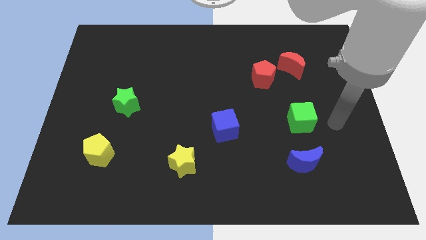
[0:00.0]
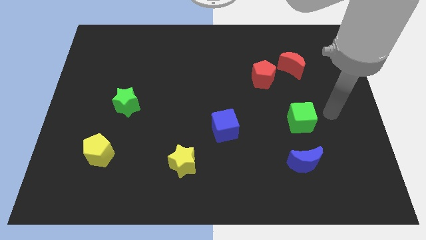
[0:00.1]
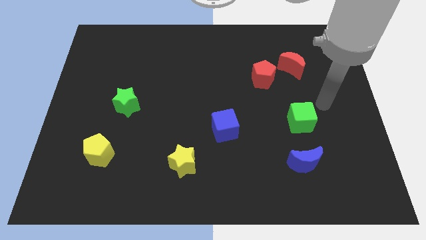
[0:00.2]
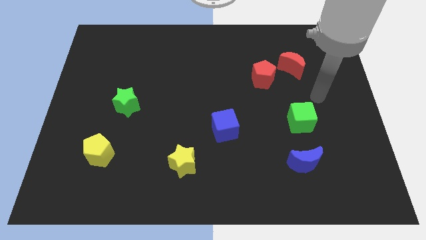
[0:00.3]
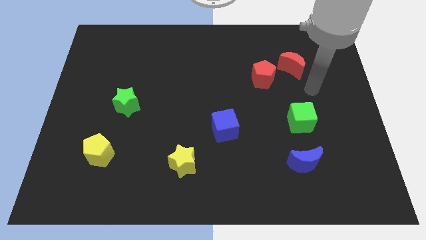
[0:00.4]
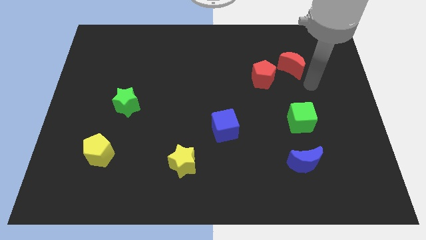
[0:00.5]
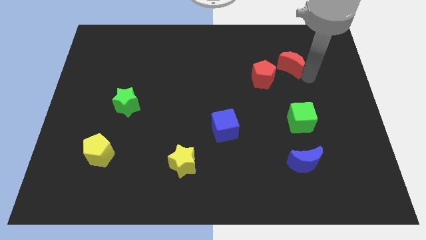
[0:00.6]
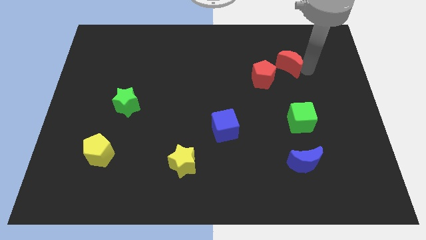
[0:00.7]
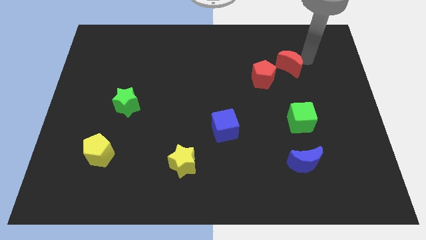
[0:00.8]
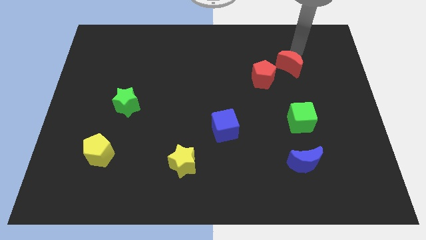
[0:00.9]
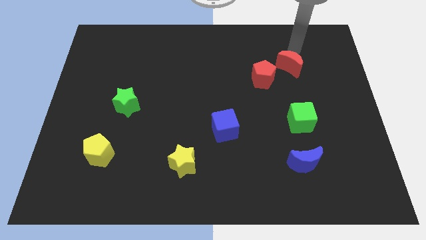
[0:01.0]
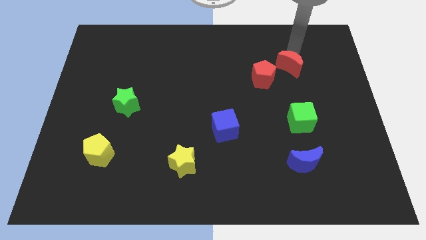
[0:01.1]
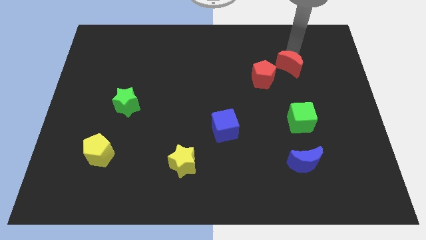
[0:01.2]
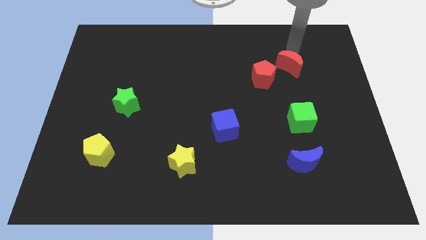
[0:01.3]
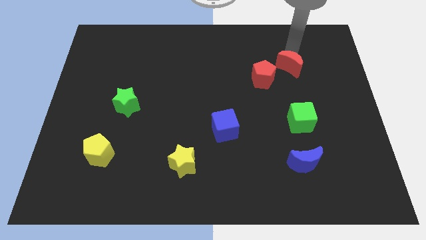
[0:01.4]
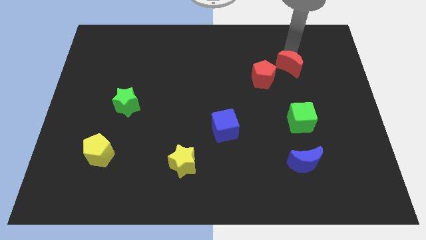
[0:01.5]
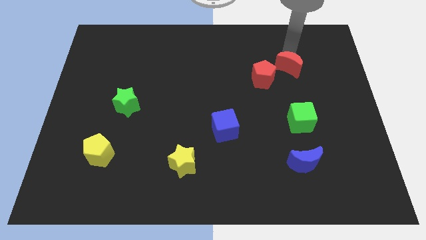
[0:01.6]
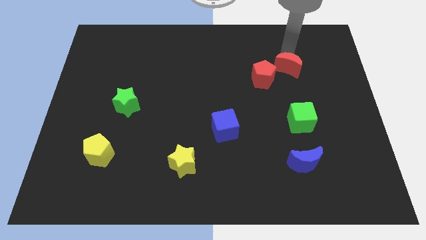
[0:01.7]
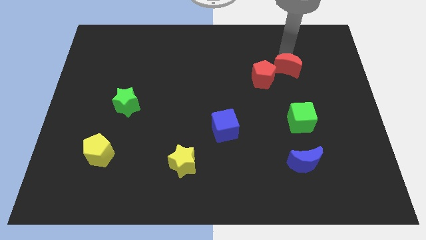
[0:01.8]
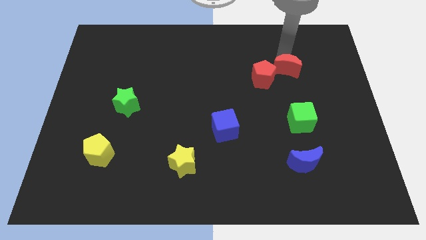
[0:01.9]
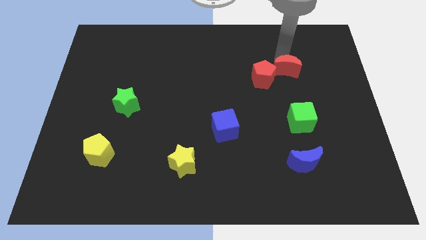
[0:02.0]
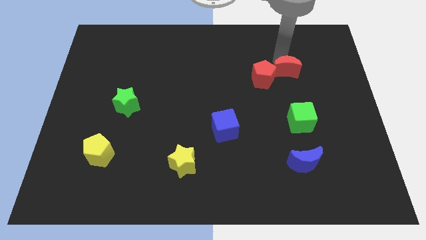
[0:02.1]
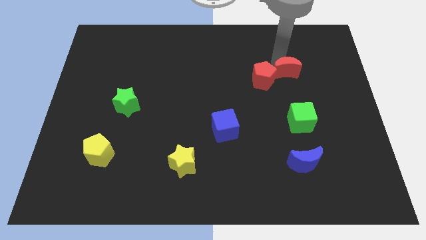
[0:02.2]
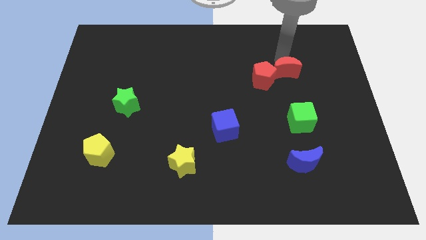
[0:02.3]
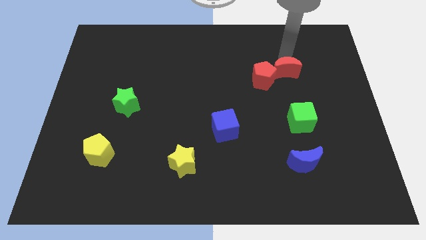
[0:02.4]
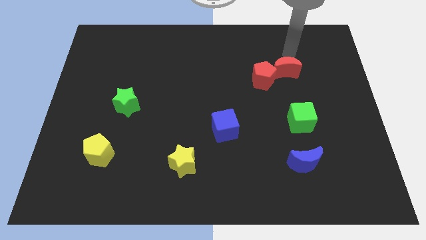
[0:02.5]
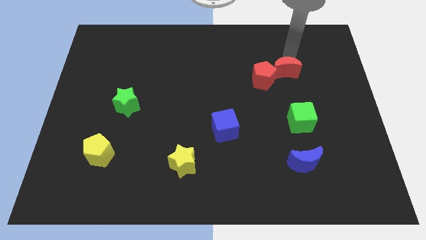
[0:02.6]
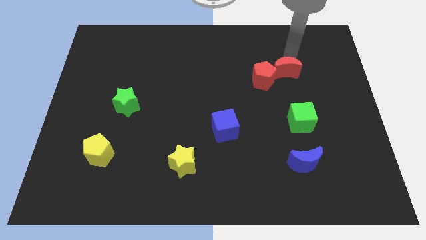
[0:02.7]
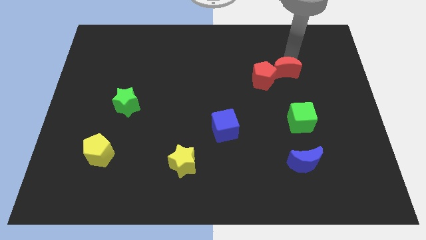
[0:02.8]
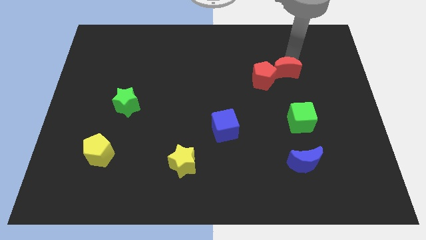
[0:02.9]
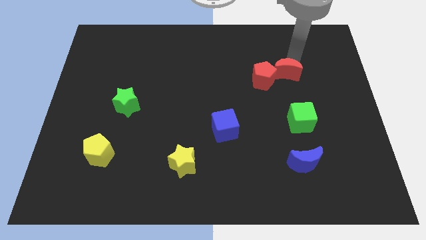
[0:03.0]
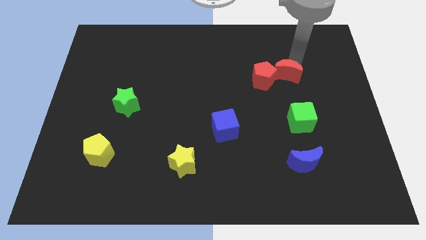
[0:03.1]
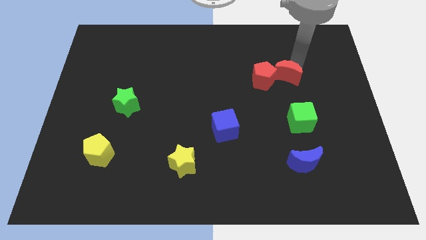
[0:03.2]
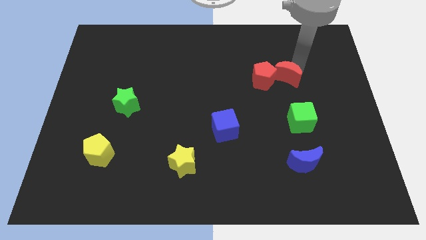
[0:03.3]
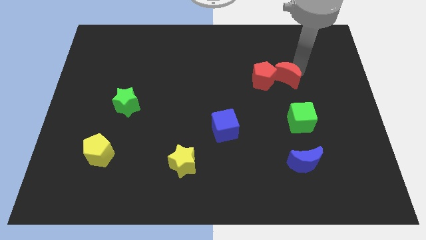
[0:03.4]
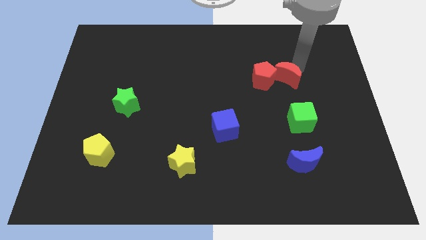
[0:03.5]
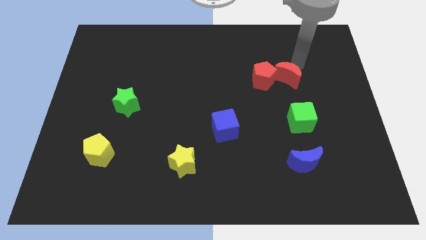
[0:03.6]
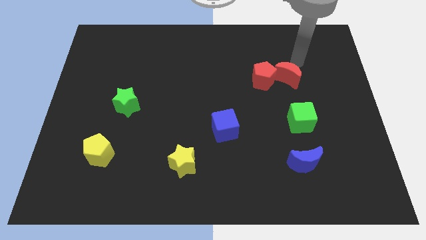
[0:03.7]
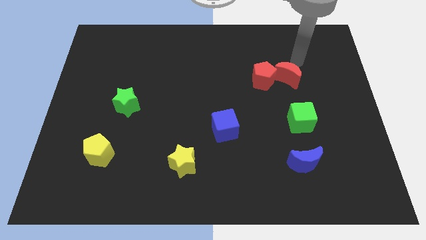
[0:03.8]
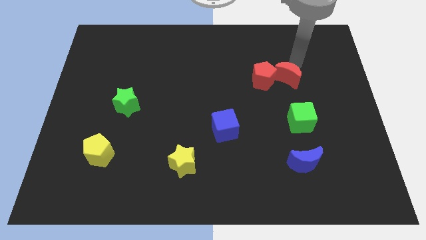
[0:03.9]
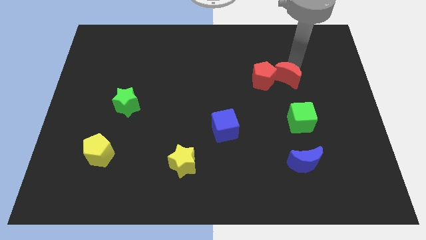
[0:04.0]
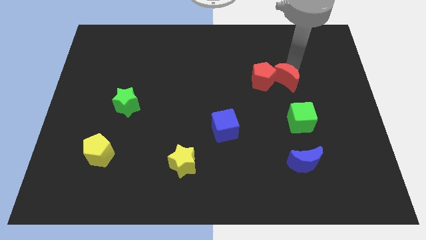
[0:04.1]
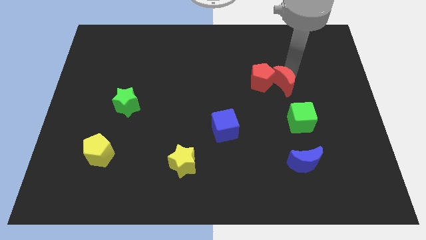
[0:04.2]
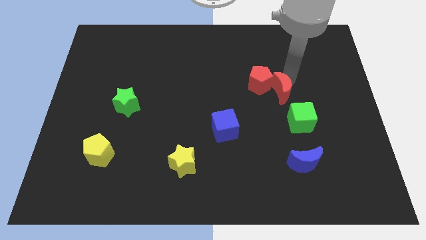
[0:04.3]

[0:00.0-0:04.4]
slightly push the red moon down and left

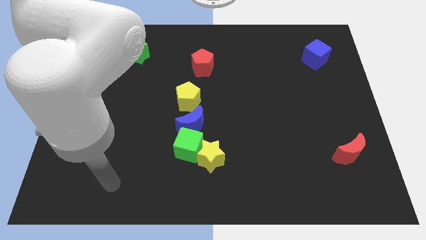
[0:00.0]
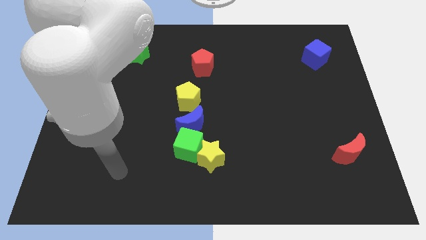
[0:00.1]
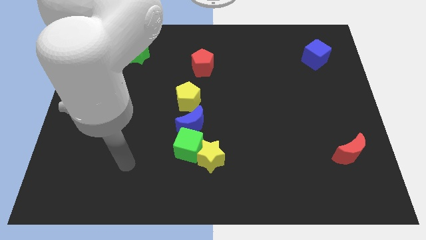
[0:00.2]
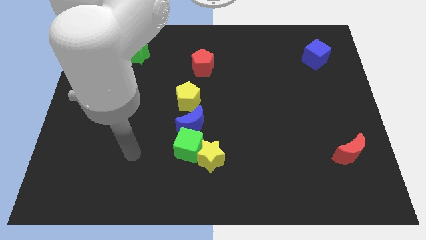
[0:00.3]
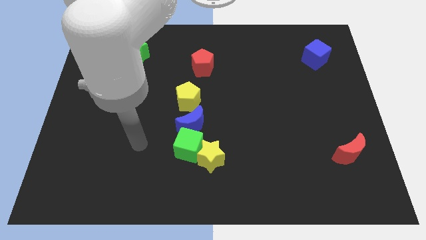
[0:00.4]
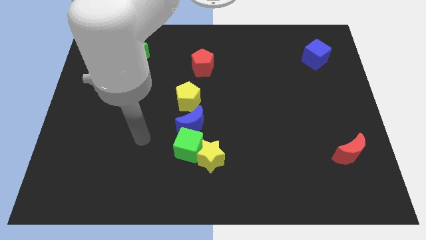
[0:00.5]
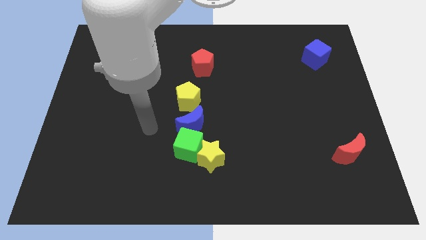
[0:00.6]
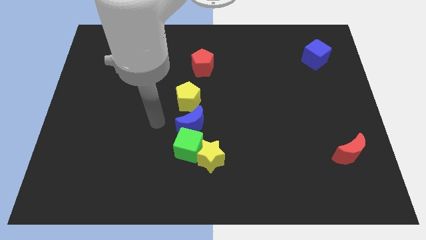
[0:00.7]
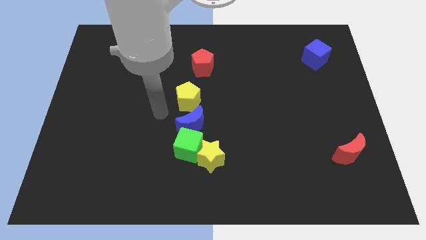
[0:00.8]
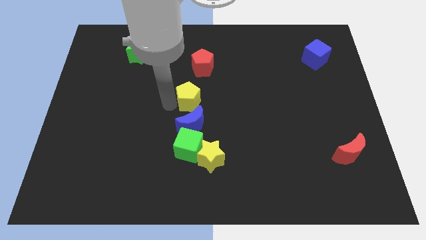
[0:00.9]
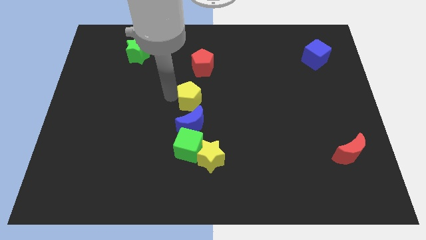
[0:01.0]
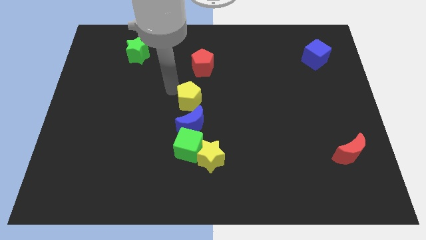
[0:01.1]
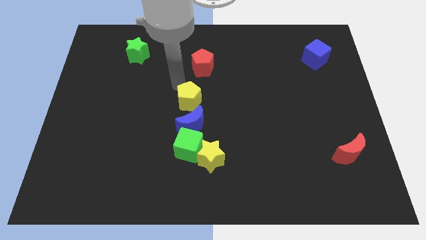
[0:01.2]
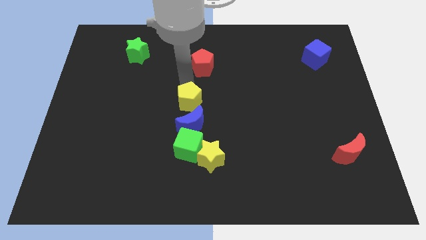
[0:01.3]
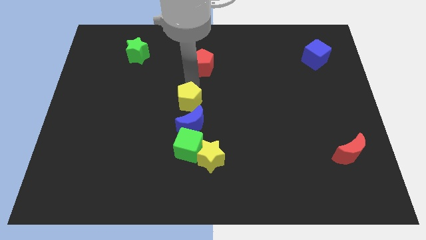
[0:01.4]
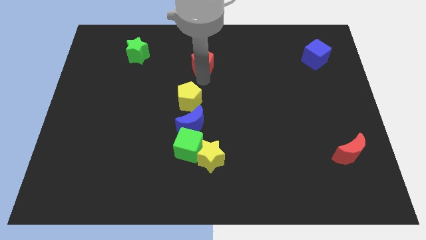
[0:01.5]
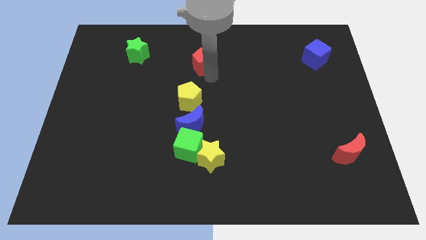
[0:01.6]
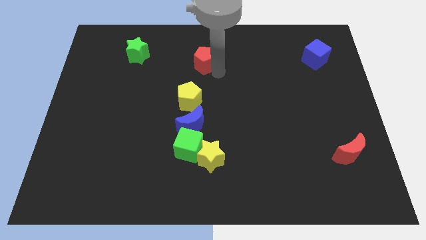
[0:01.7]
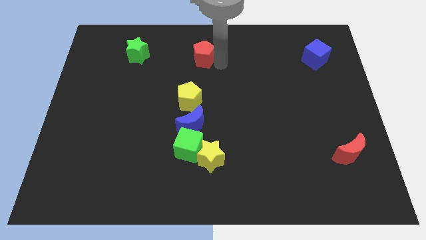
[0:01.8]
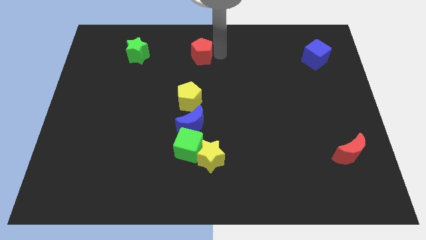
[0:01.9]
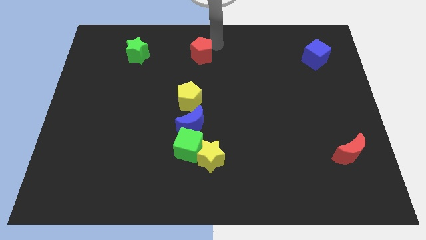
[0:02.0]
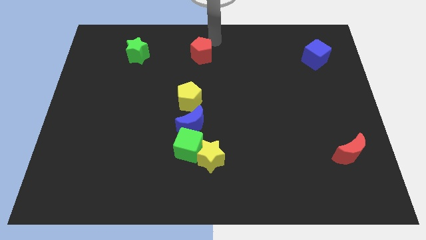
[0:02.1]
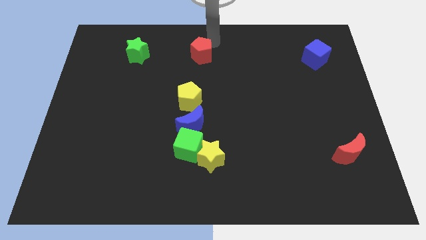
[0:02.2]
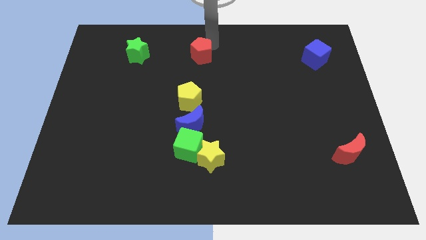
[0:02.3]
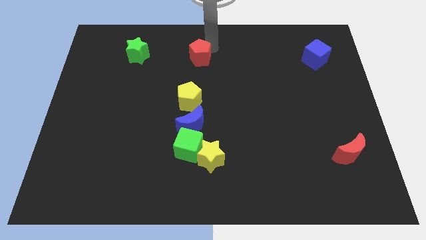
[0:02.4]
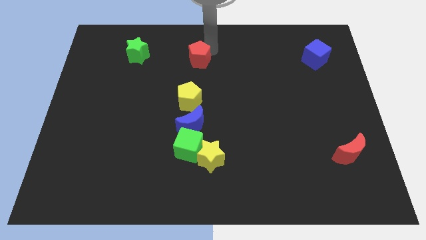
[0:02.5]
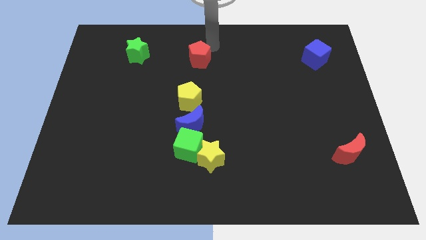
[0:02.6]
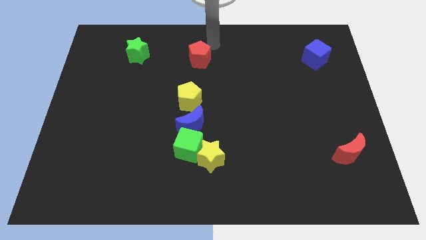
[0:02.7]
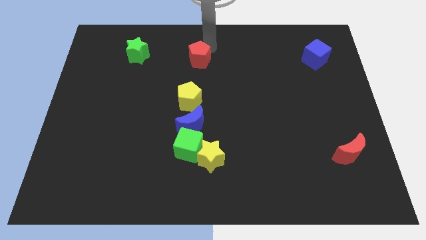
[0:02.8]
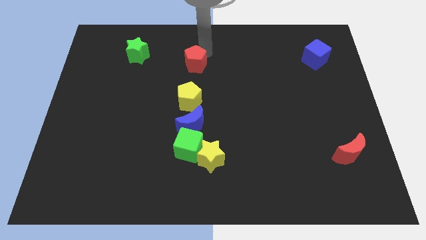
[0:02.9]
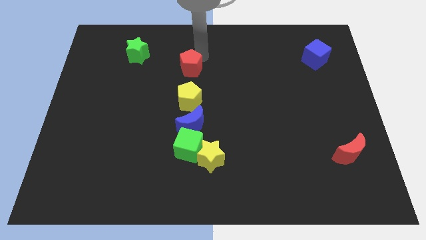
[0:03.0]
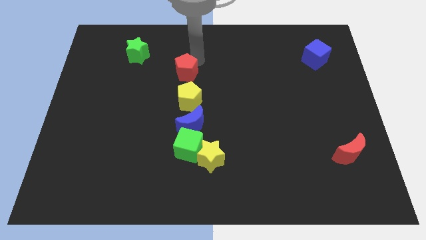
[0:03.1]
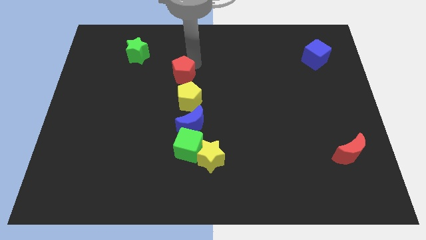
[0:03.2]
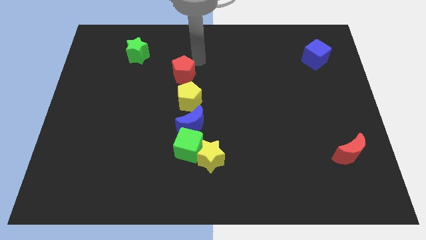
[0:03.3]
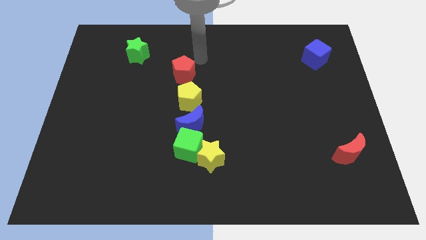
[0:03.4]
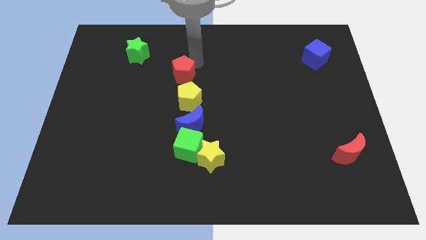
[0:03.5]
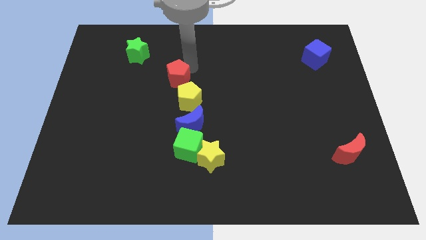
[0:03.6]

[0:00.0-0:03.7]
push the red pentagon down and left somewhat
